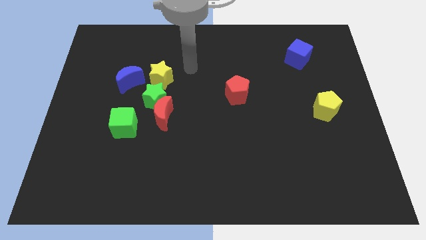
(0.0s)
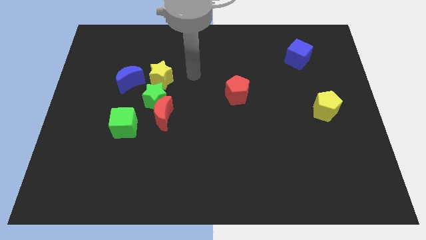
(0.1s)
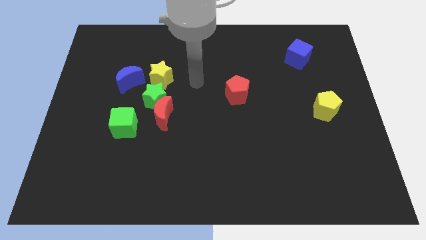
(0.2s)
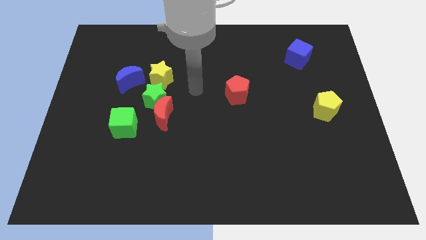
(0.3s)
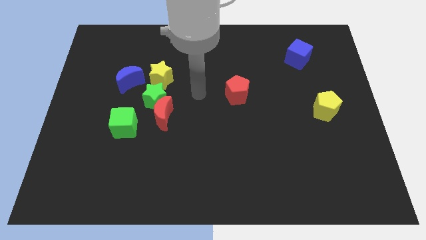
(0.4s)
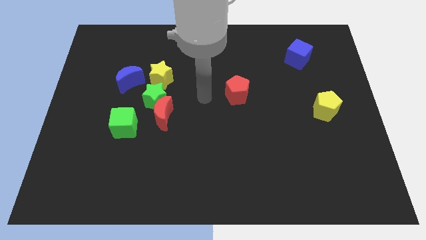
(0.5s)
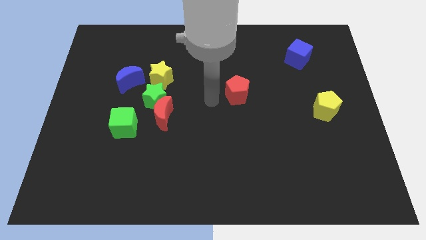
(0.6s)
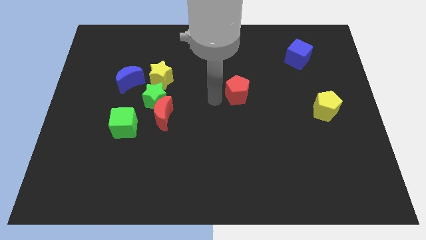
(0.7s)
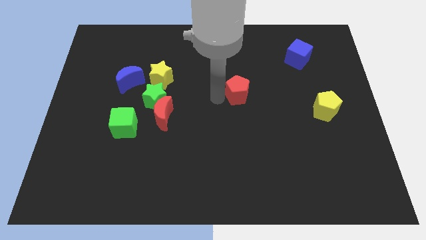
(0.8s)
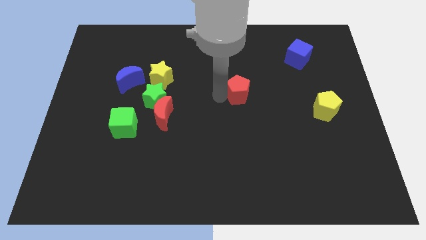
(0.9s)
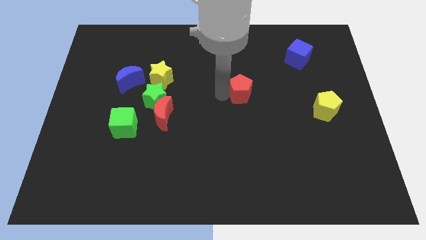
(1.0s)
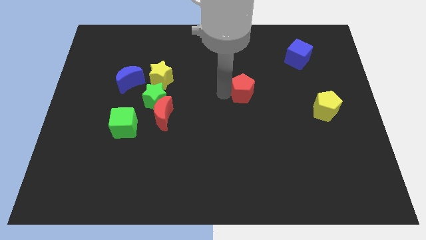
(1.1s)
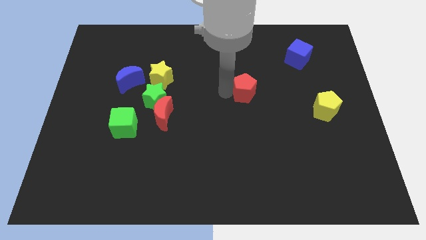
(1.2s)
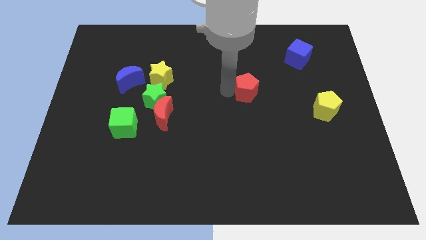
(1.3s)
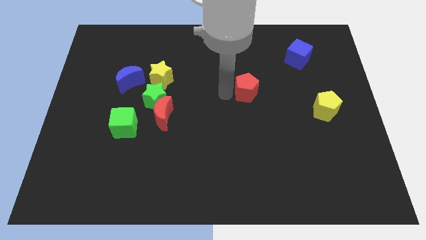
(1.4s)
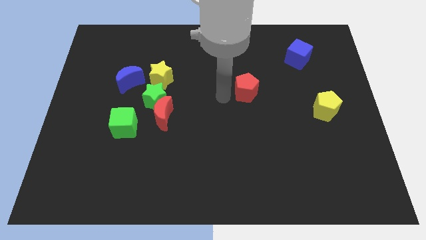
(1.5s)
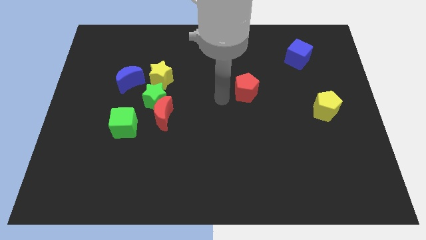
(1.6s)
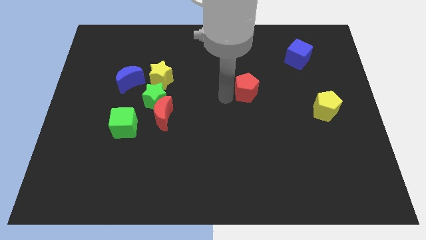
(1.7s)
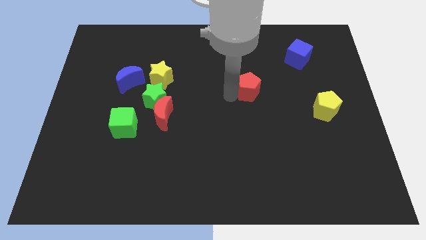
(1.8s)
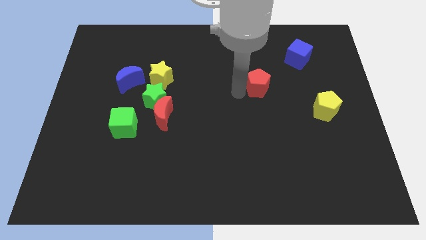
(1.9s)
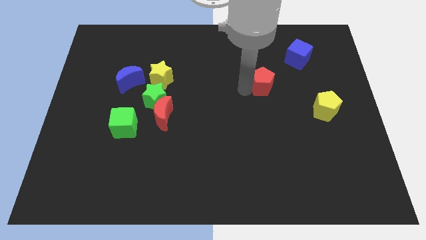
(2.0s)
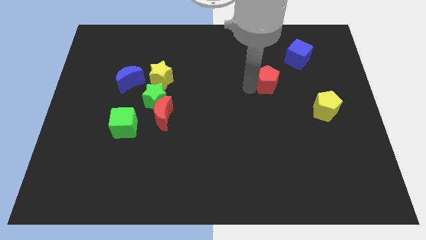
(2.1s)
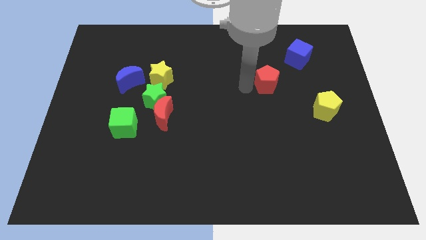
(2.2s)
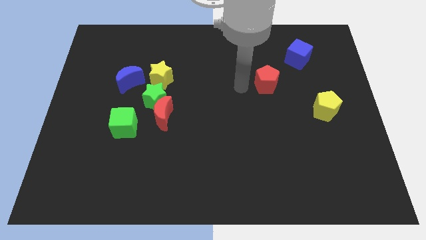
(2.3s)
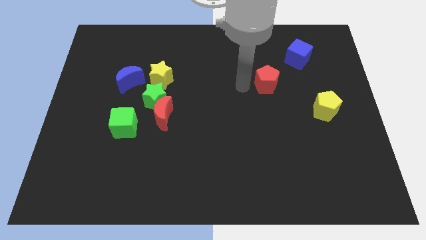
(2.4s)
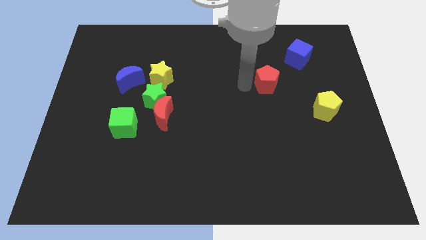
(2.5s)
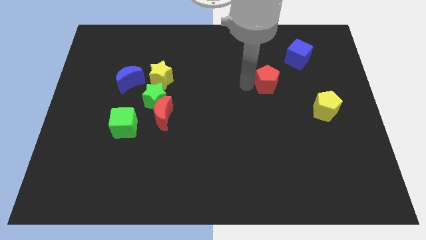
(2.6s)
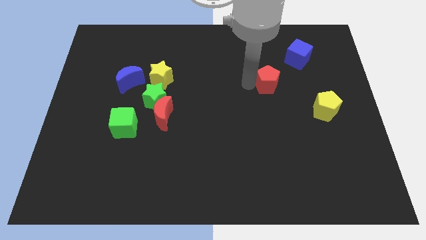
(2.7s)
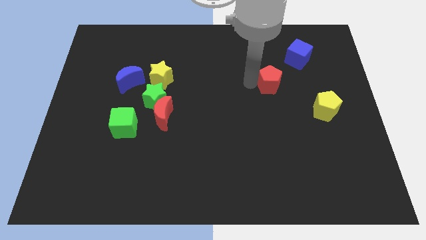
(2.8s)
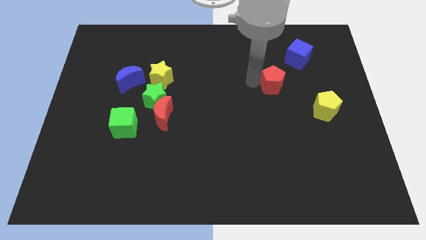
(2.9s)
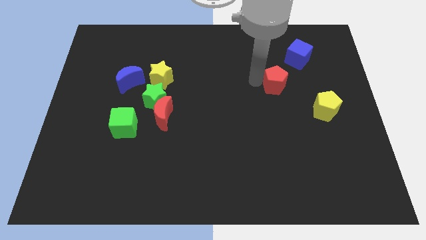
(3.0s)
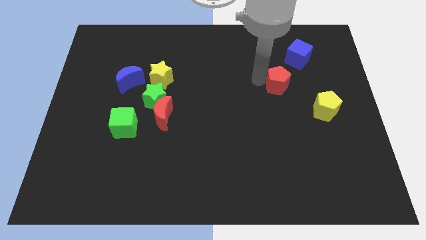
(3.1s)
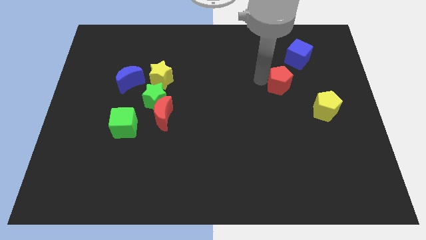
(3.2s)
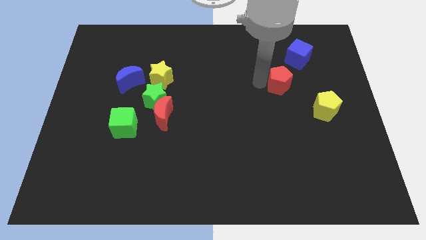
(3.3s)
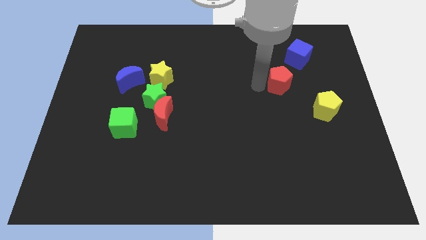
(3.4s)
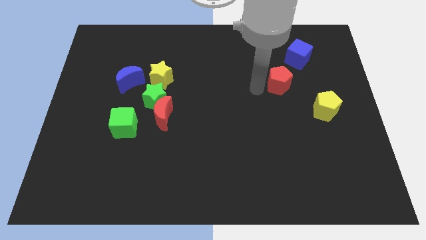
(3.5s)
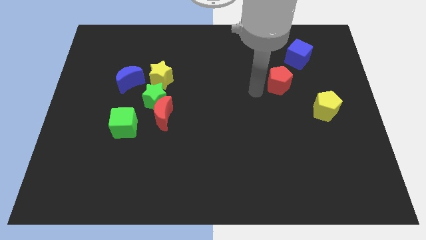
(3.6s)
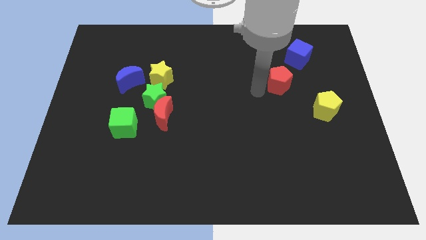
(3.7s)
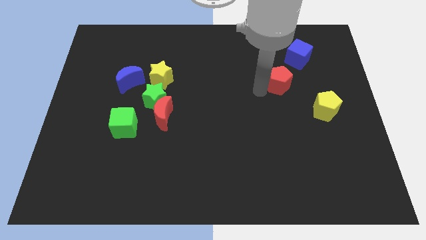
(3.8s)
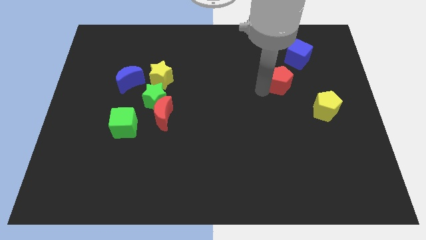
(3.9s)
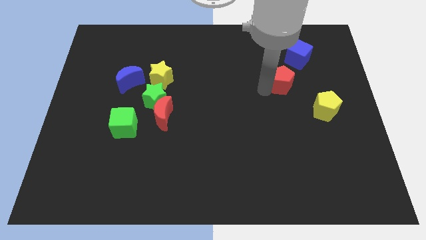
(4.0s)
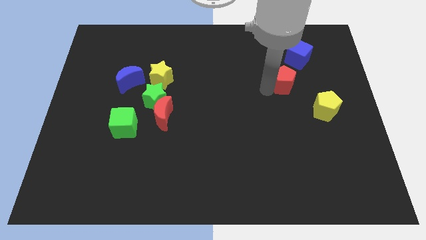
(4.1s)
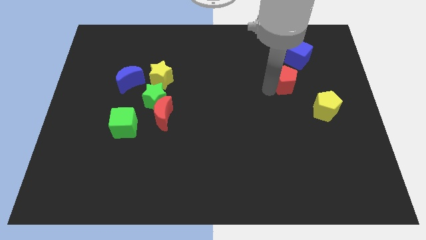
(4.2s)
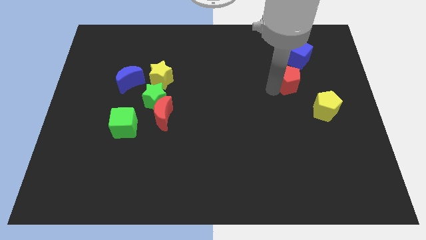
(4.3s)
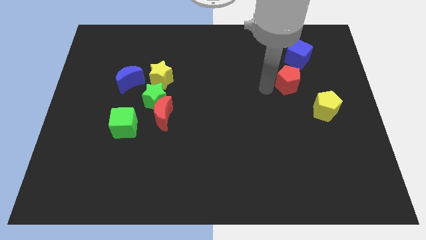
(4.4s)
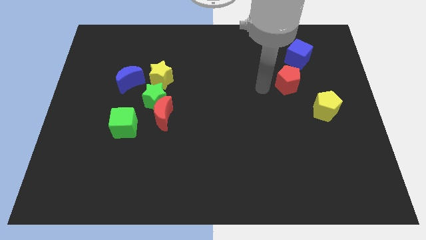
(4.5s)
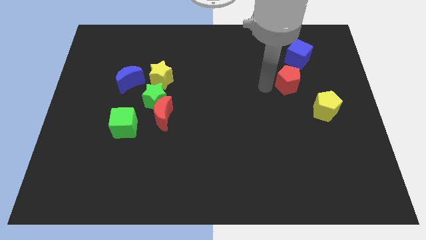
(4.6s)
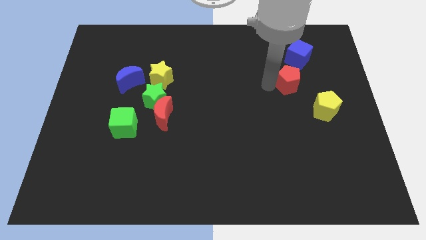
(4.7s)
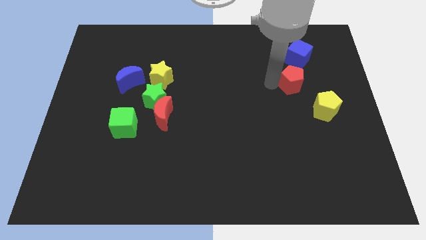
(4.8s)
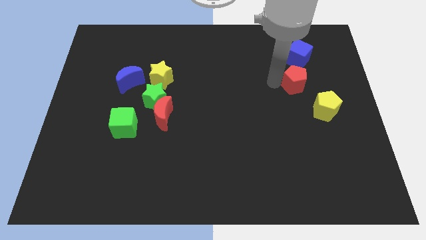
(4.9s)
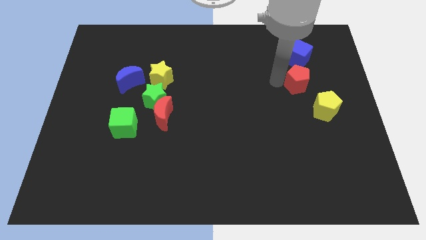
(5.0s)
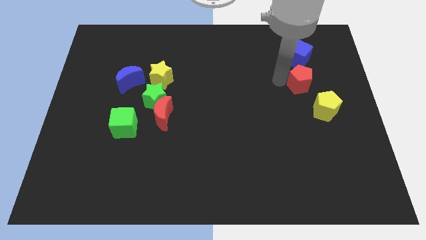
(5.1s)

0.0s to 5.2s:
put the red pentagon above the yellow pentagon

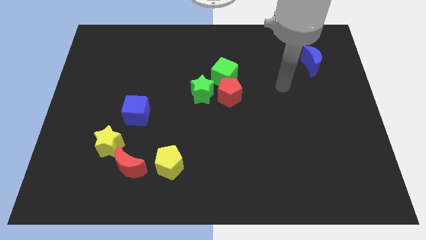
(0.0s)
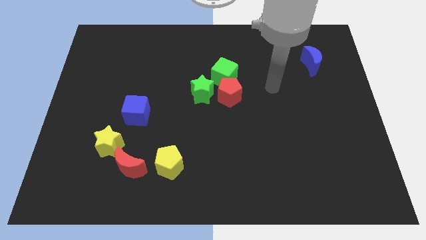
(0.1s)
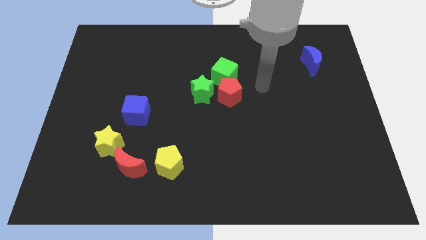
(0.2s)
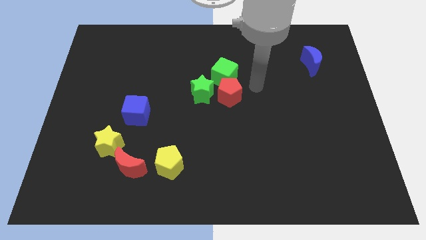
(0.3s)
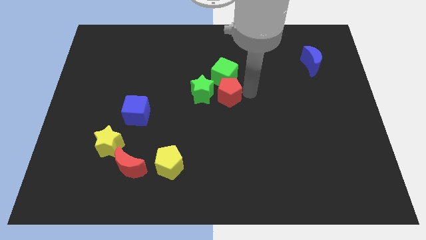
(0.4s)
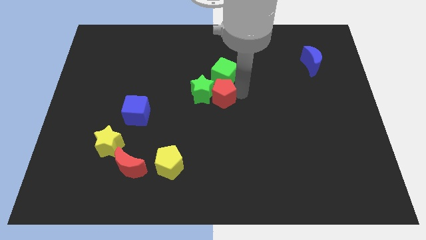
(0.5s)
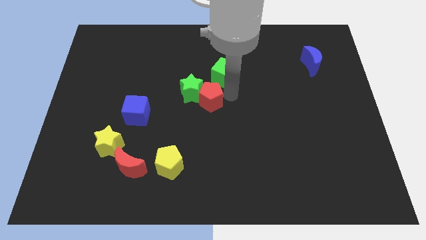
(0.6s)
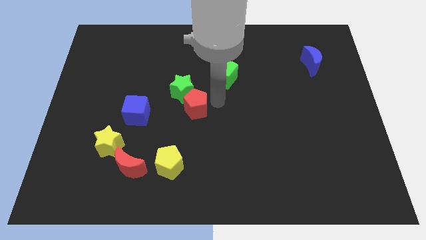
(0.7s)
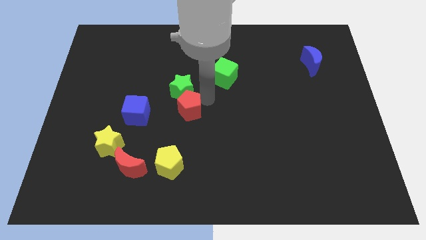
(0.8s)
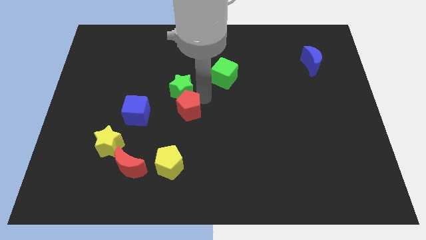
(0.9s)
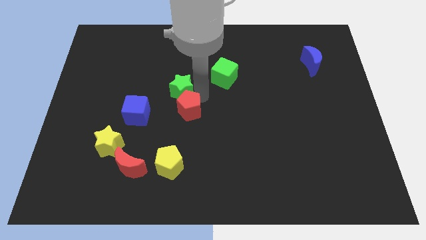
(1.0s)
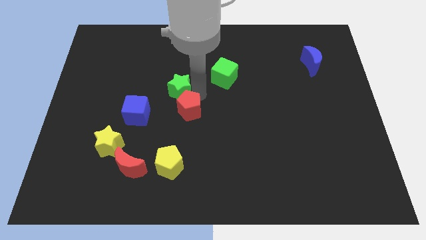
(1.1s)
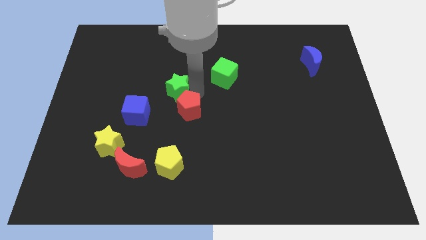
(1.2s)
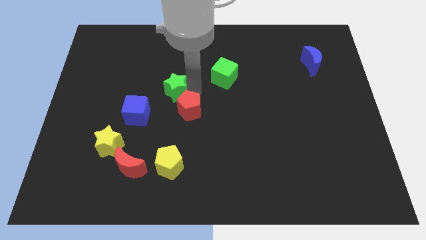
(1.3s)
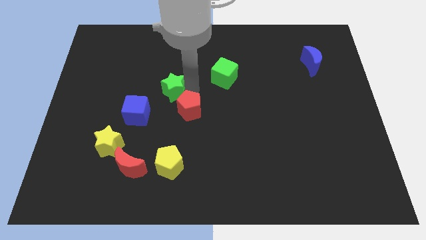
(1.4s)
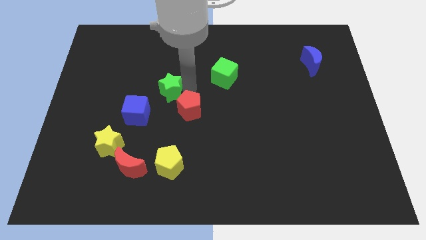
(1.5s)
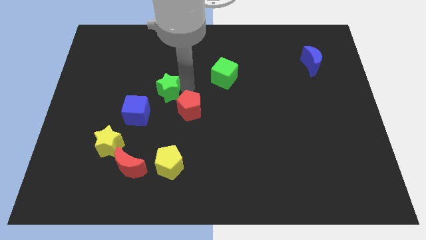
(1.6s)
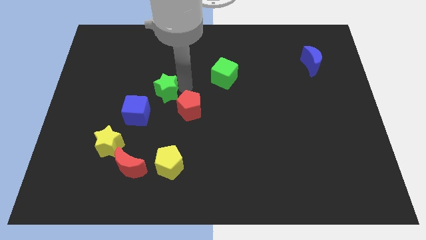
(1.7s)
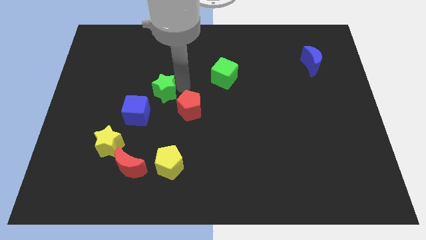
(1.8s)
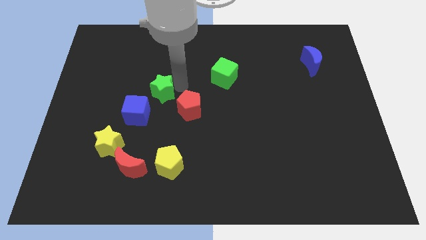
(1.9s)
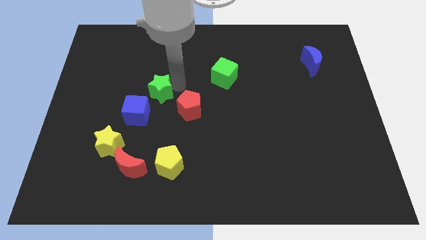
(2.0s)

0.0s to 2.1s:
put the green star above the blue cube
